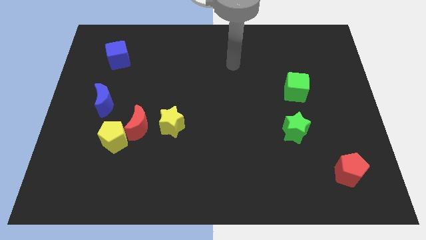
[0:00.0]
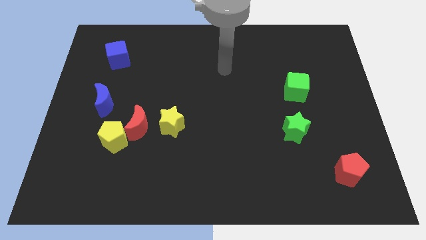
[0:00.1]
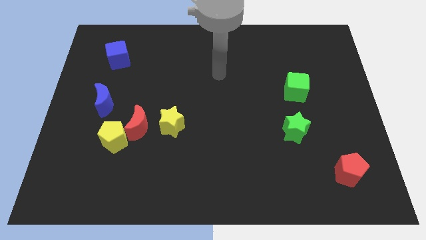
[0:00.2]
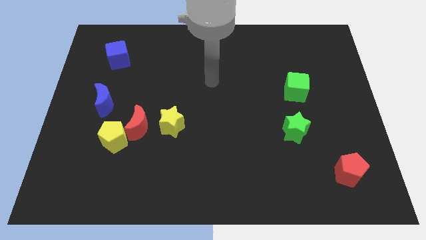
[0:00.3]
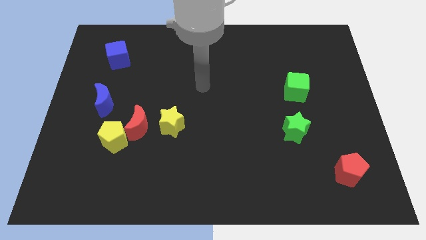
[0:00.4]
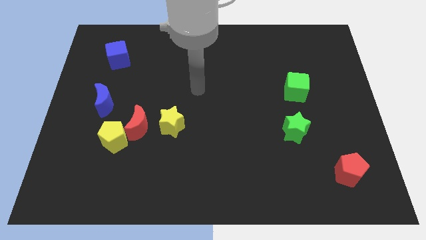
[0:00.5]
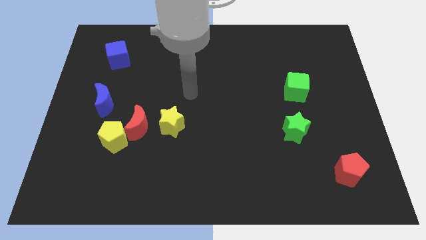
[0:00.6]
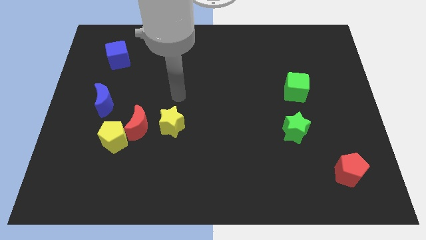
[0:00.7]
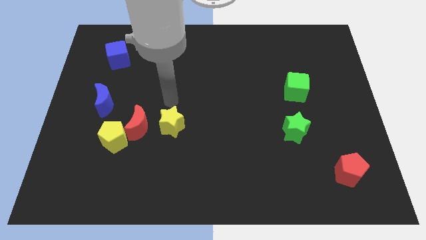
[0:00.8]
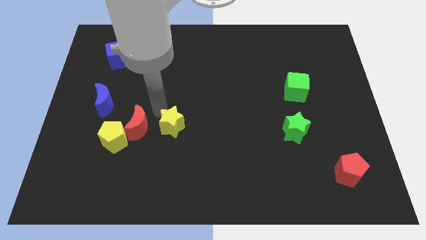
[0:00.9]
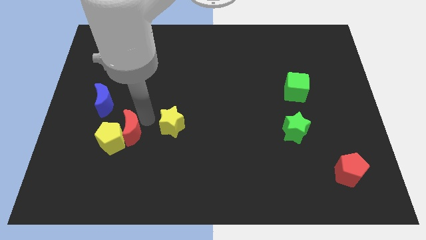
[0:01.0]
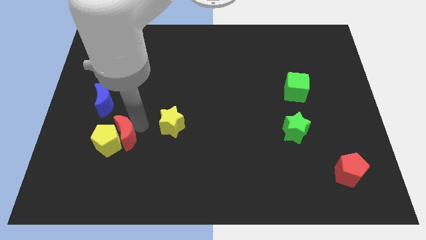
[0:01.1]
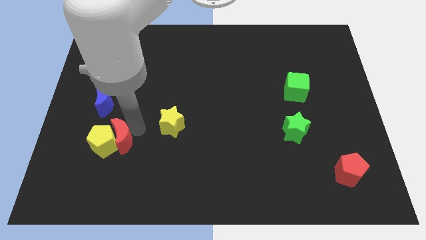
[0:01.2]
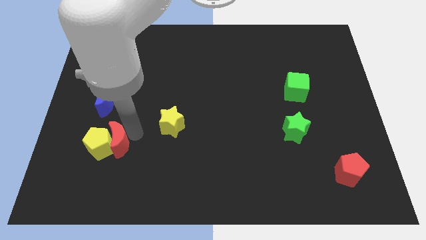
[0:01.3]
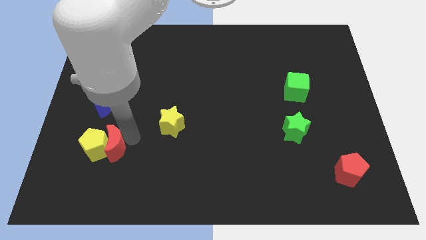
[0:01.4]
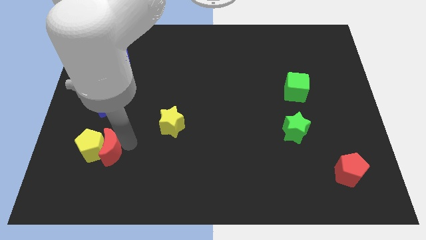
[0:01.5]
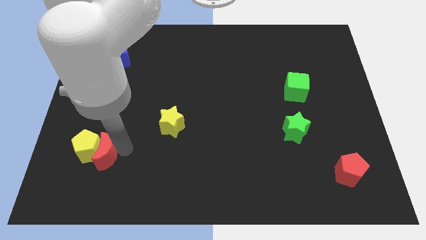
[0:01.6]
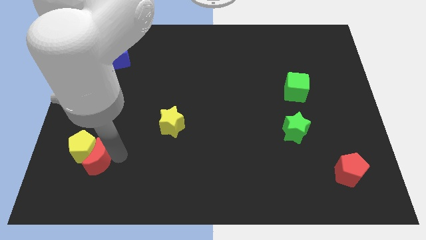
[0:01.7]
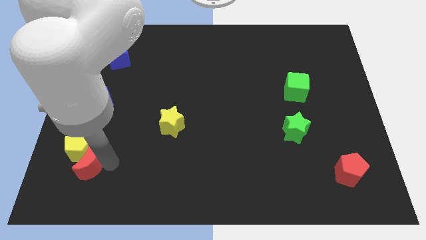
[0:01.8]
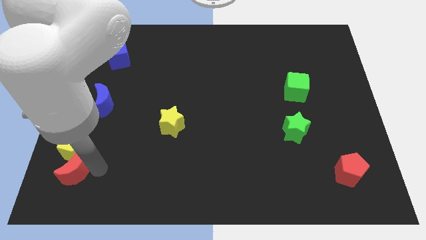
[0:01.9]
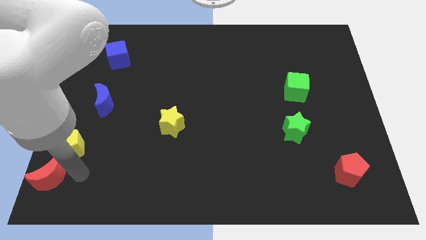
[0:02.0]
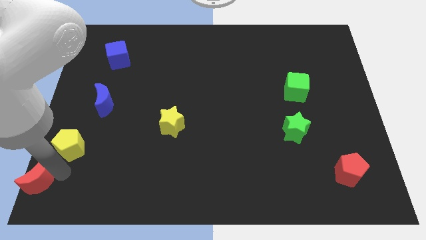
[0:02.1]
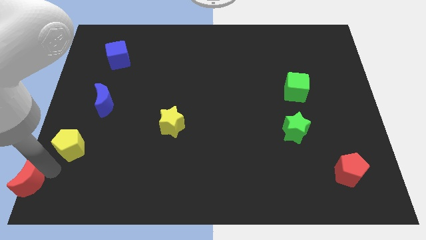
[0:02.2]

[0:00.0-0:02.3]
pull the yellow pentagon apart from the red moon

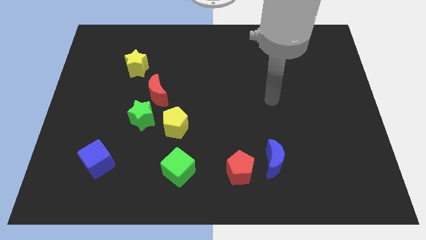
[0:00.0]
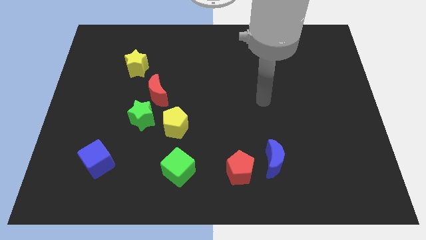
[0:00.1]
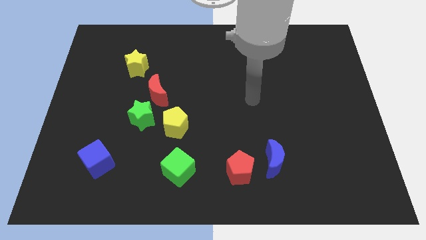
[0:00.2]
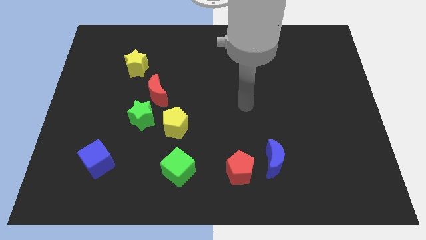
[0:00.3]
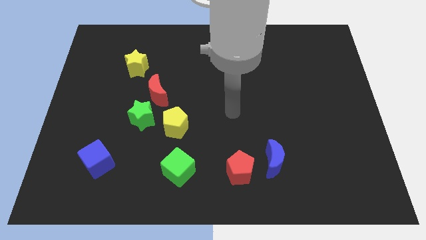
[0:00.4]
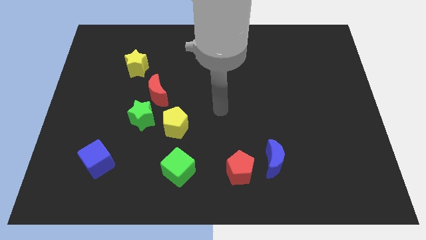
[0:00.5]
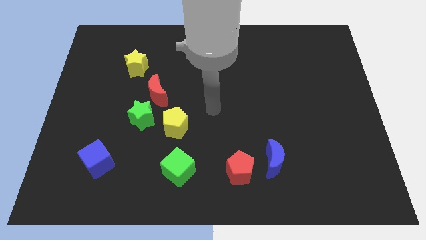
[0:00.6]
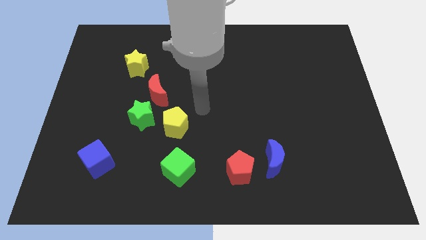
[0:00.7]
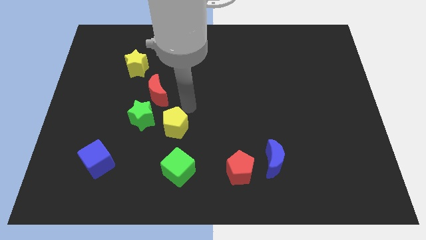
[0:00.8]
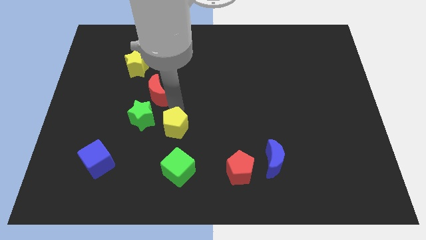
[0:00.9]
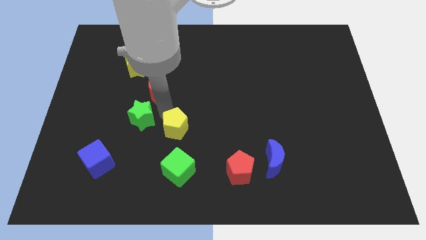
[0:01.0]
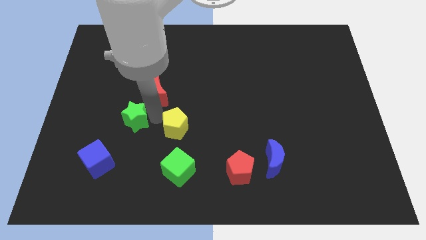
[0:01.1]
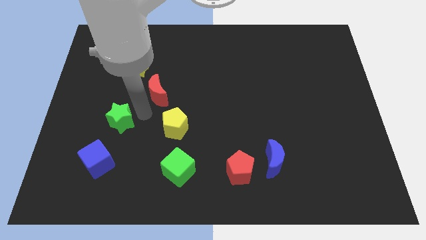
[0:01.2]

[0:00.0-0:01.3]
separate the red moon from the green star

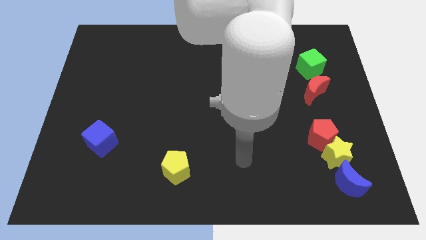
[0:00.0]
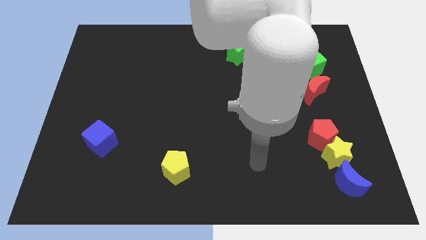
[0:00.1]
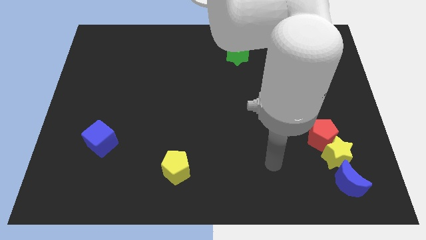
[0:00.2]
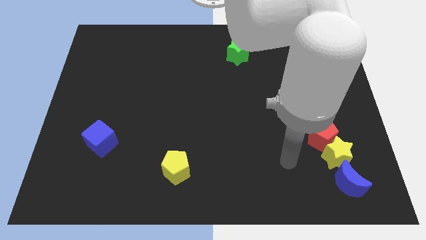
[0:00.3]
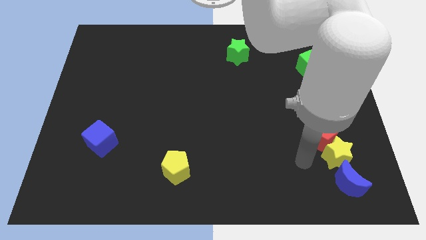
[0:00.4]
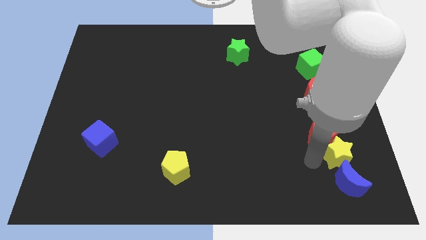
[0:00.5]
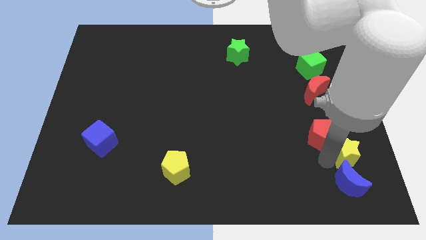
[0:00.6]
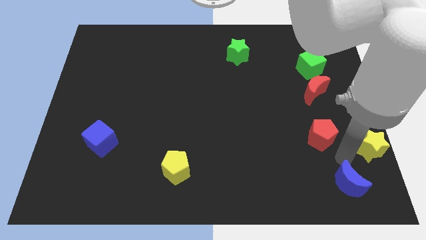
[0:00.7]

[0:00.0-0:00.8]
separate the red pentagon from the yellow star

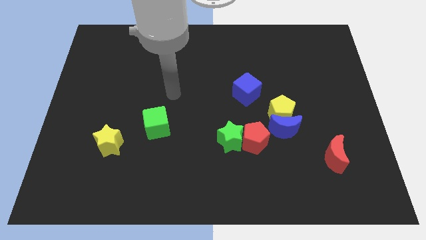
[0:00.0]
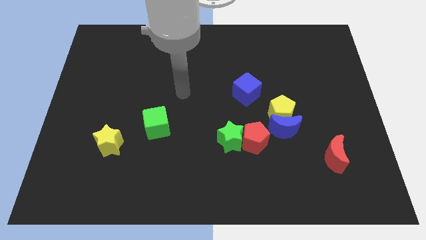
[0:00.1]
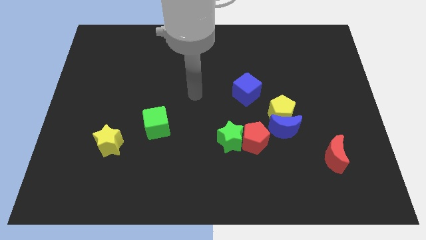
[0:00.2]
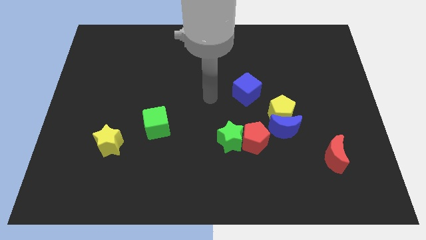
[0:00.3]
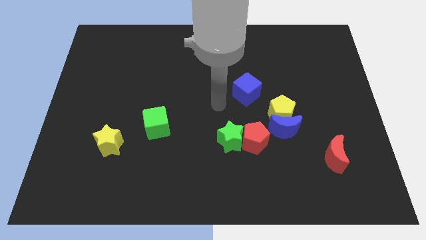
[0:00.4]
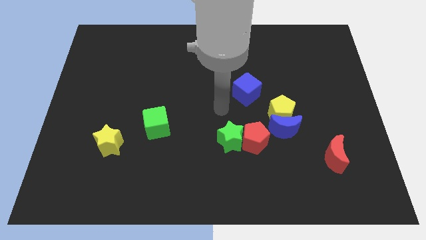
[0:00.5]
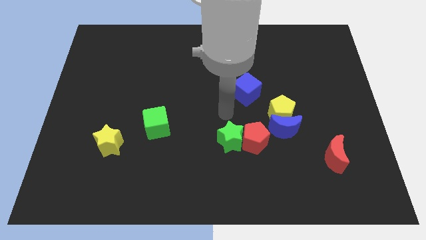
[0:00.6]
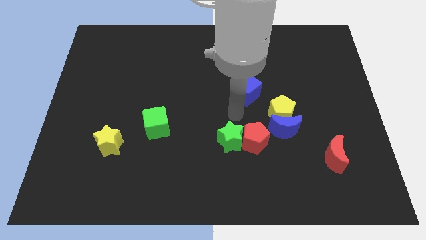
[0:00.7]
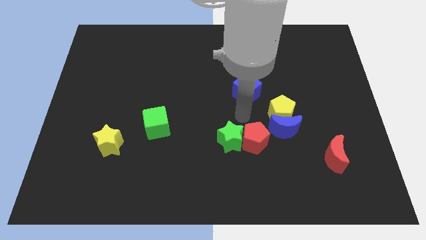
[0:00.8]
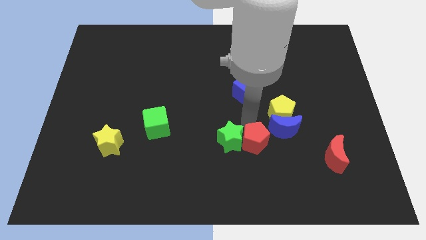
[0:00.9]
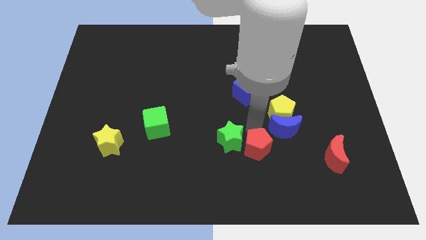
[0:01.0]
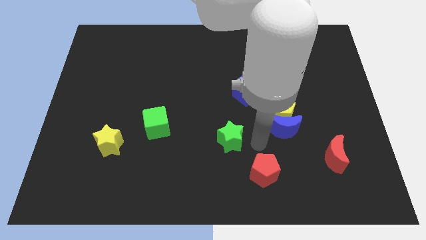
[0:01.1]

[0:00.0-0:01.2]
pull the green star apart from the red pentagon

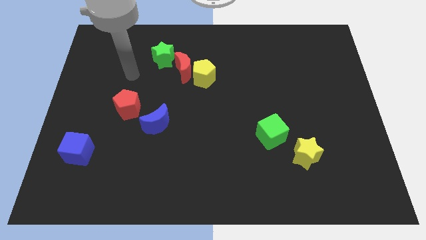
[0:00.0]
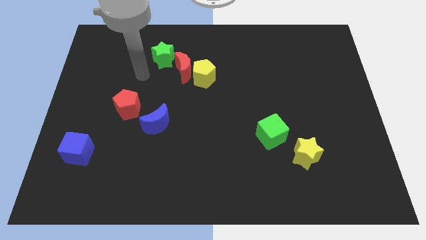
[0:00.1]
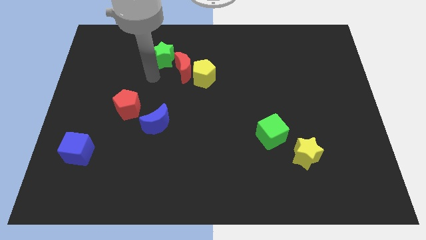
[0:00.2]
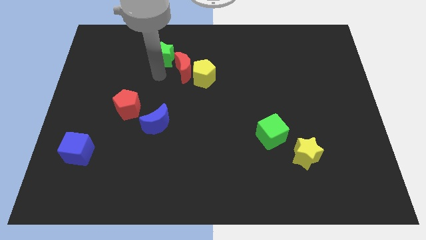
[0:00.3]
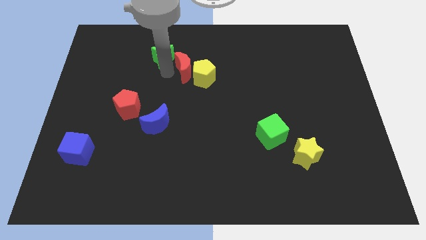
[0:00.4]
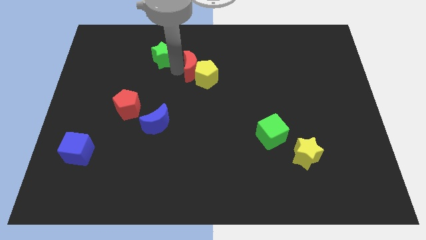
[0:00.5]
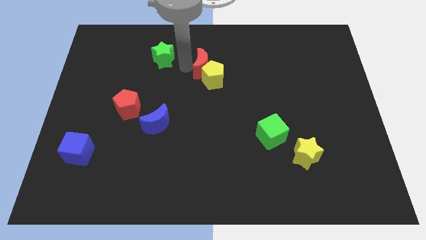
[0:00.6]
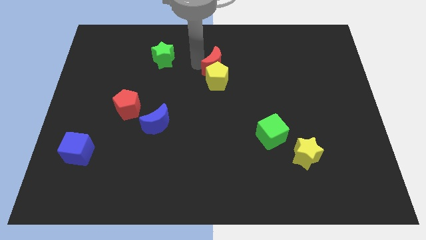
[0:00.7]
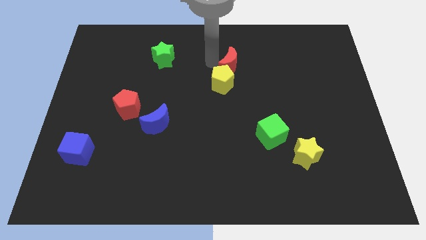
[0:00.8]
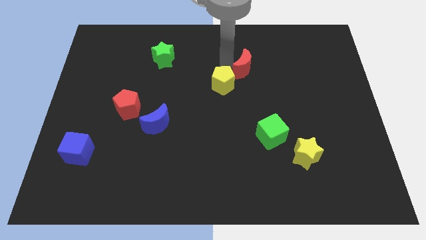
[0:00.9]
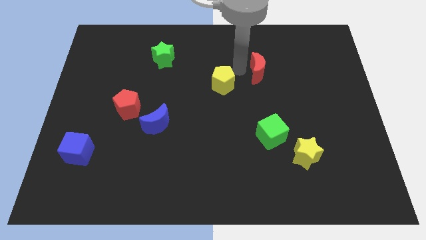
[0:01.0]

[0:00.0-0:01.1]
separate the yellow pentagon from the red moon

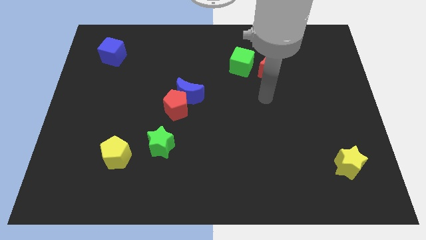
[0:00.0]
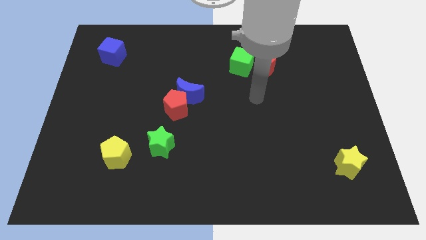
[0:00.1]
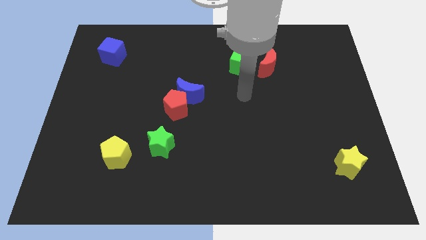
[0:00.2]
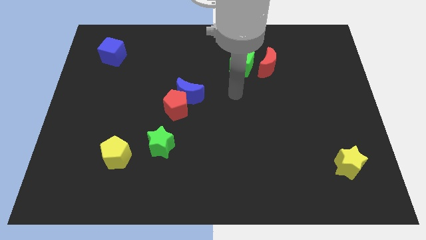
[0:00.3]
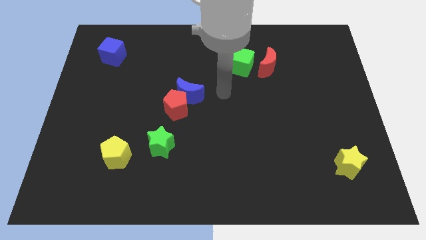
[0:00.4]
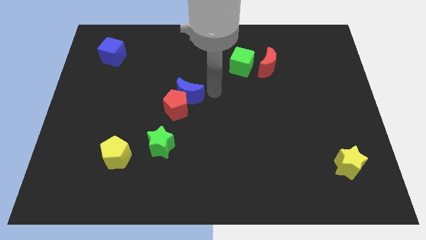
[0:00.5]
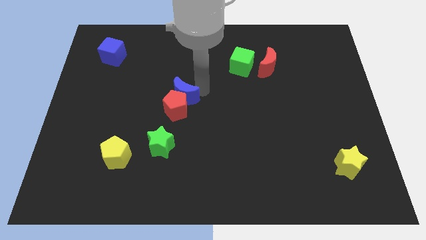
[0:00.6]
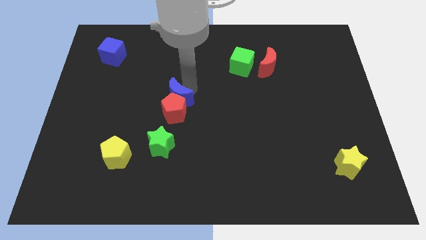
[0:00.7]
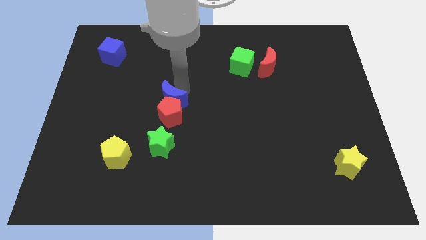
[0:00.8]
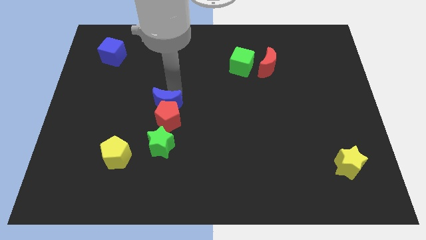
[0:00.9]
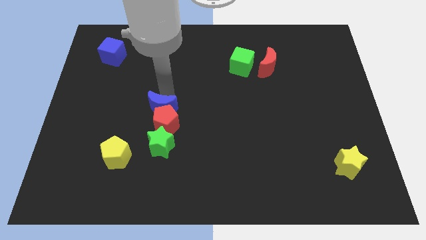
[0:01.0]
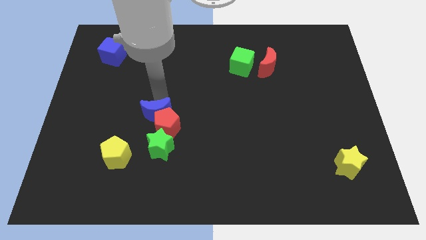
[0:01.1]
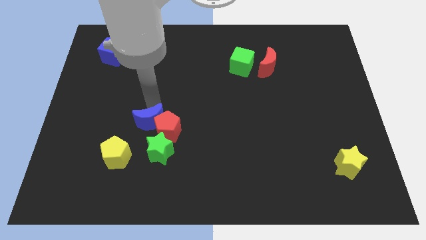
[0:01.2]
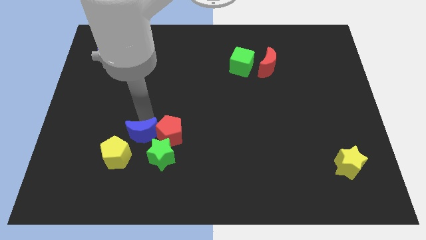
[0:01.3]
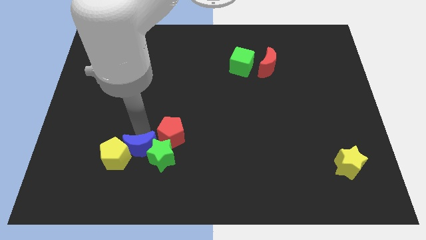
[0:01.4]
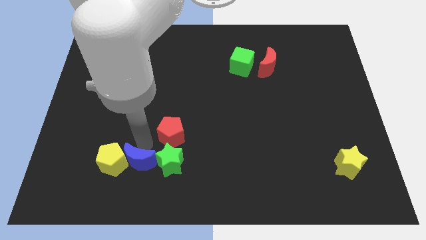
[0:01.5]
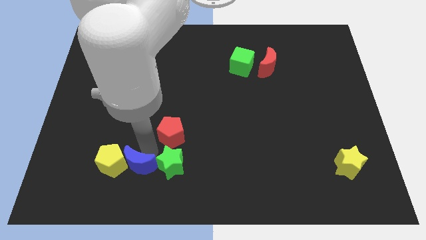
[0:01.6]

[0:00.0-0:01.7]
pull the red pentagon apart from the blue moon

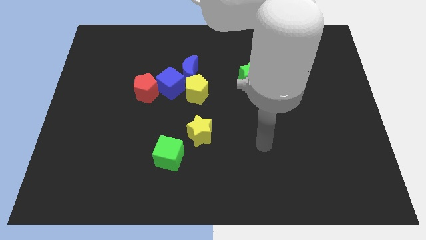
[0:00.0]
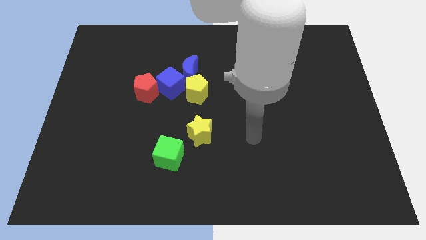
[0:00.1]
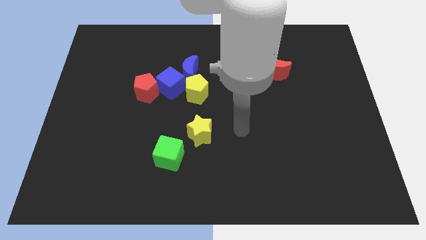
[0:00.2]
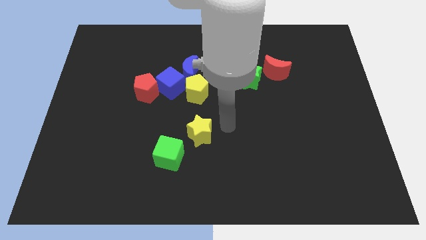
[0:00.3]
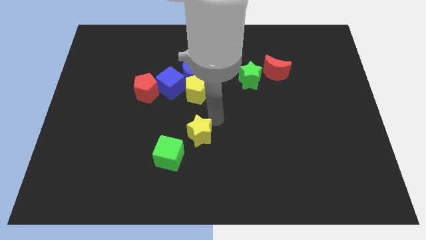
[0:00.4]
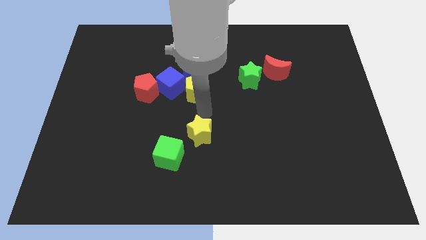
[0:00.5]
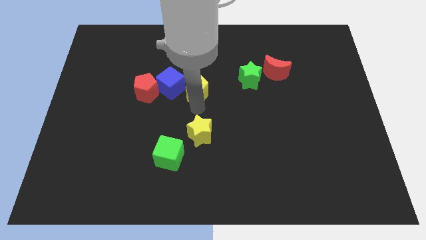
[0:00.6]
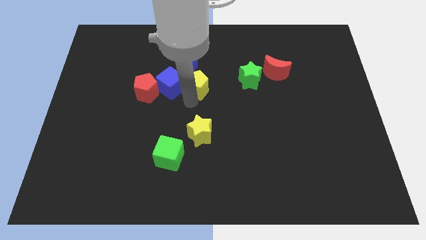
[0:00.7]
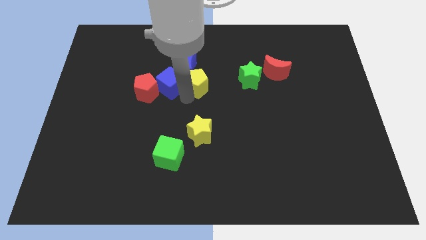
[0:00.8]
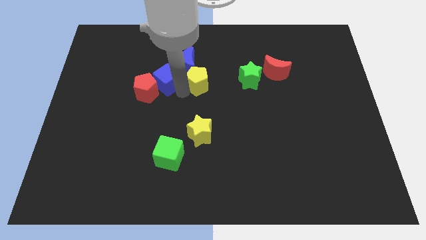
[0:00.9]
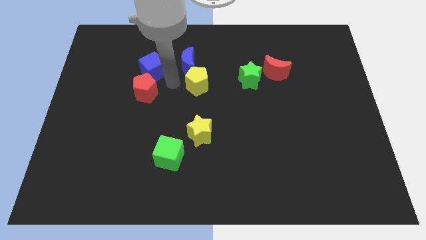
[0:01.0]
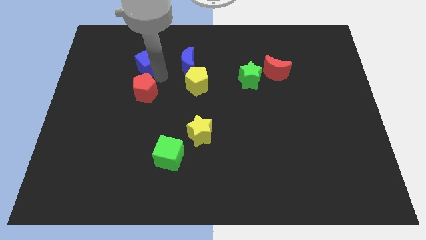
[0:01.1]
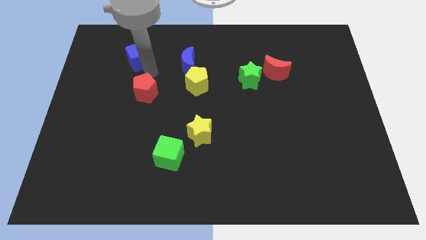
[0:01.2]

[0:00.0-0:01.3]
separate the red pentagon from the blue cube
